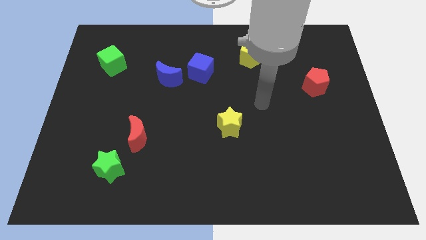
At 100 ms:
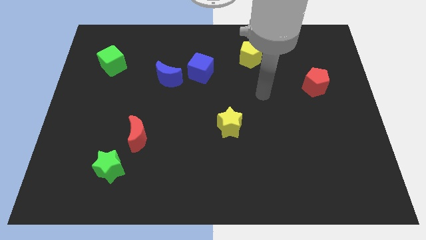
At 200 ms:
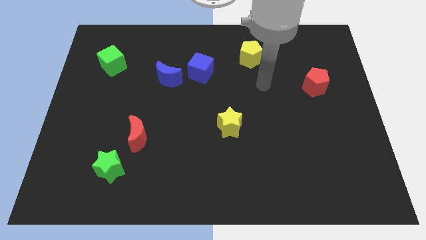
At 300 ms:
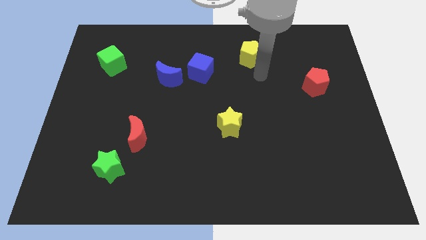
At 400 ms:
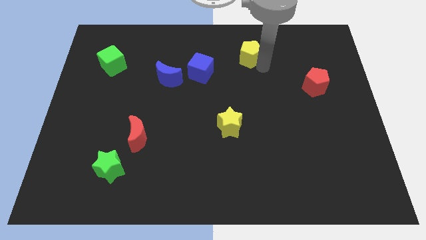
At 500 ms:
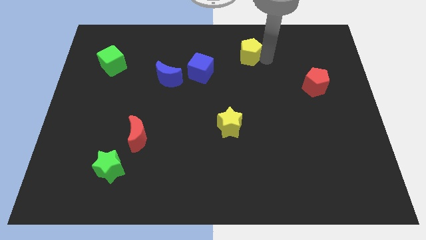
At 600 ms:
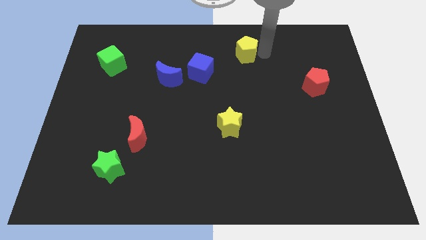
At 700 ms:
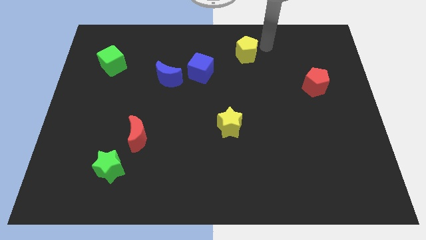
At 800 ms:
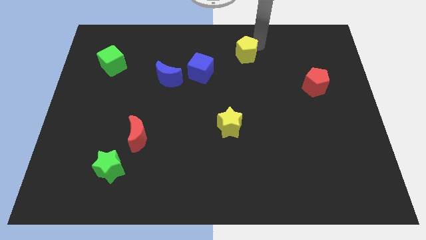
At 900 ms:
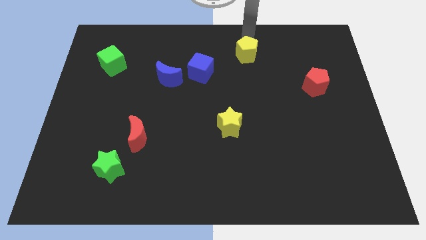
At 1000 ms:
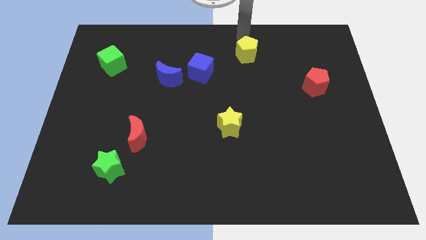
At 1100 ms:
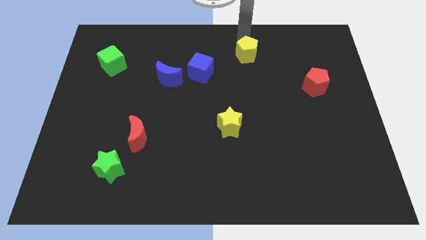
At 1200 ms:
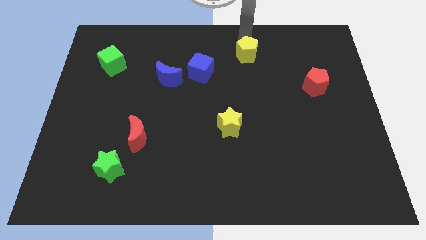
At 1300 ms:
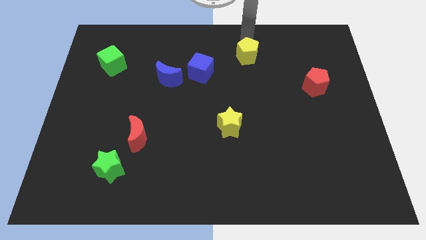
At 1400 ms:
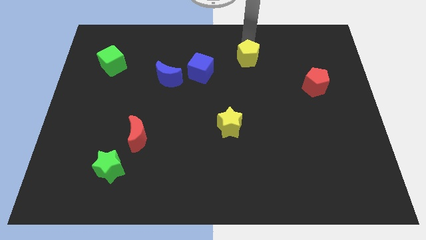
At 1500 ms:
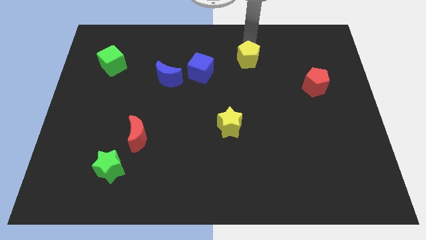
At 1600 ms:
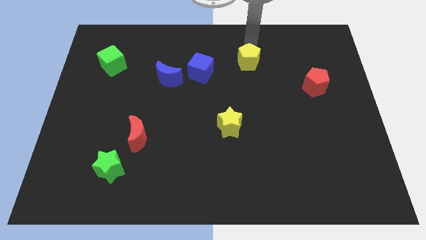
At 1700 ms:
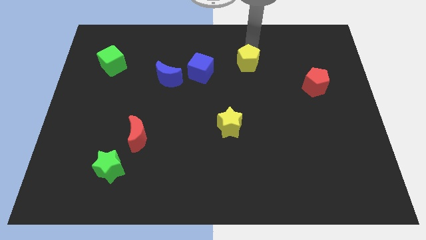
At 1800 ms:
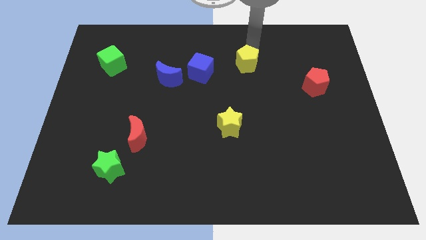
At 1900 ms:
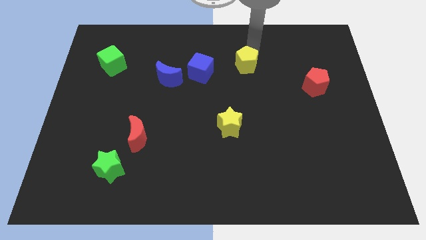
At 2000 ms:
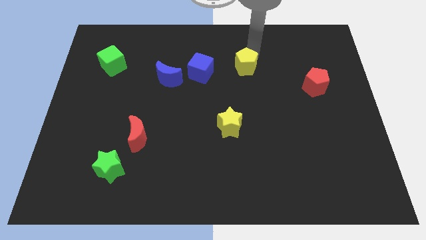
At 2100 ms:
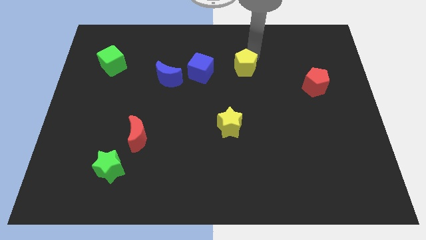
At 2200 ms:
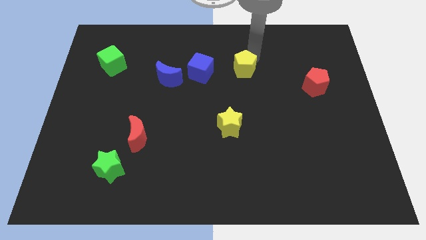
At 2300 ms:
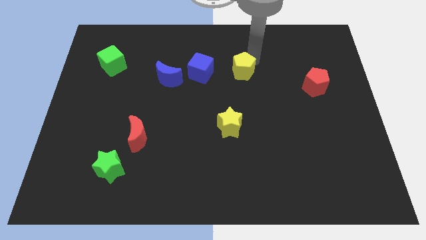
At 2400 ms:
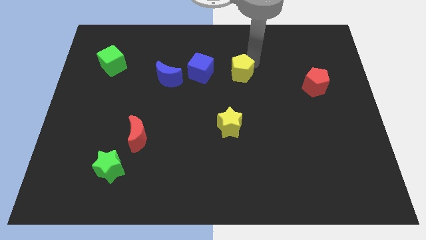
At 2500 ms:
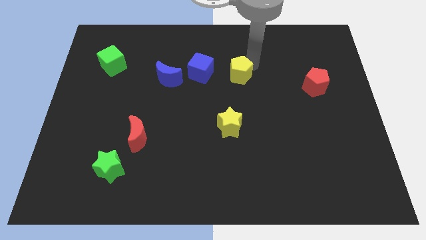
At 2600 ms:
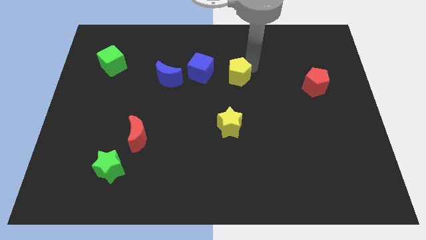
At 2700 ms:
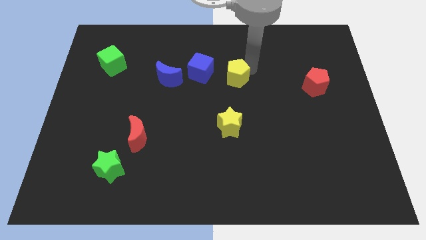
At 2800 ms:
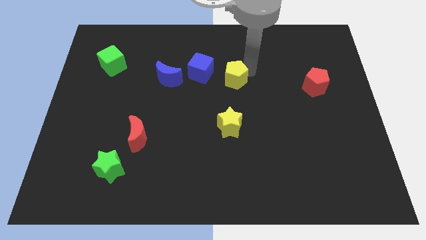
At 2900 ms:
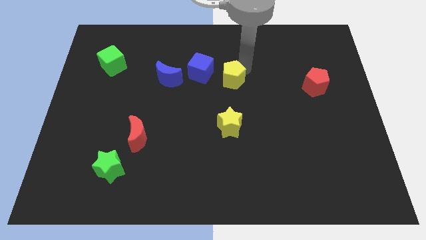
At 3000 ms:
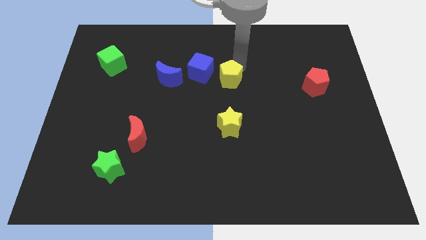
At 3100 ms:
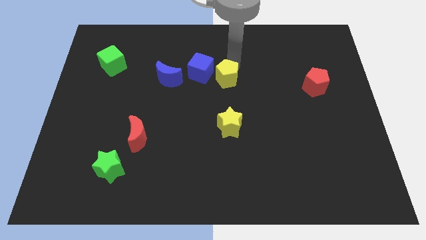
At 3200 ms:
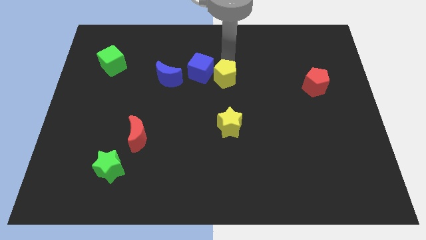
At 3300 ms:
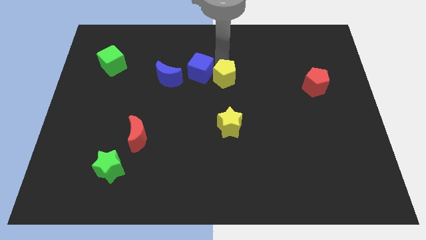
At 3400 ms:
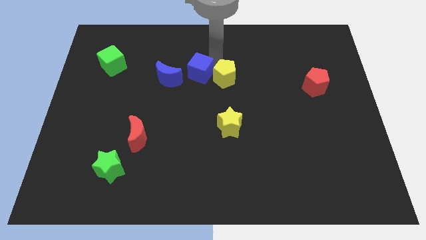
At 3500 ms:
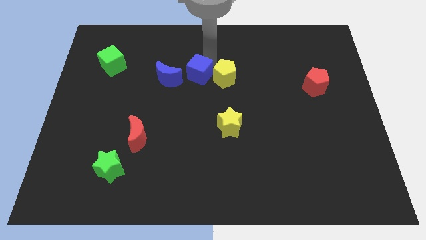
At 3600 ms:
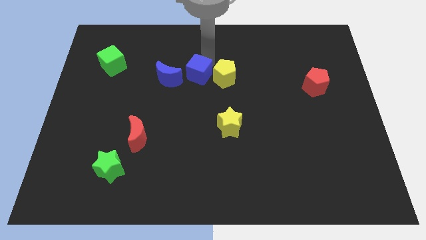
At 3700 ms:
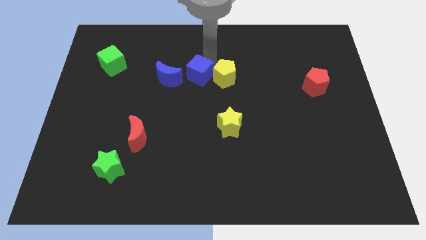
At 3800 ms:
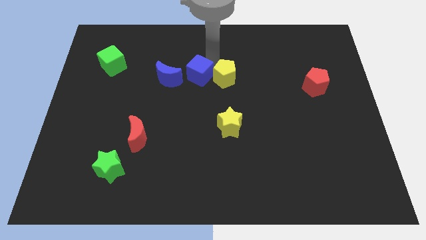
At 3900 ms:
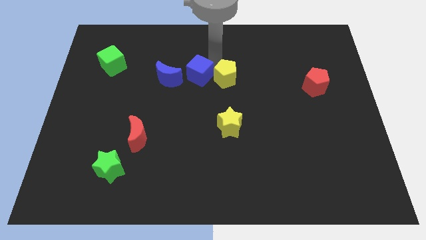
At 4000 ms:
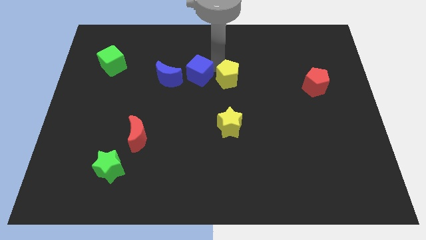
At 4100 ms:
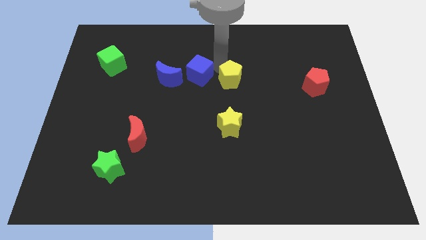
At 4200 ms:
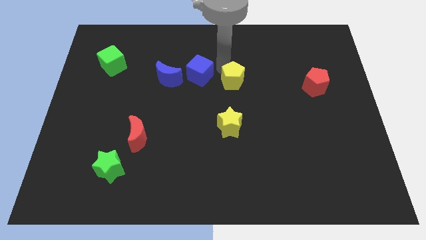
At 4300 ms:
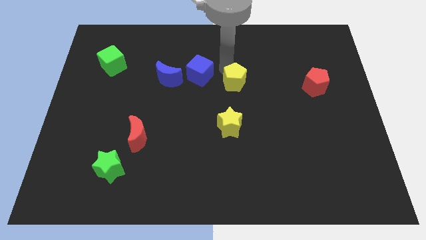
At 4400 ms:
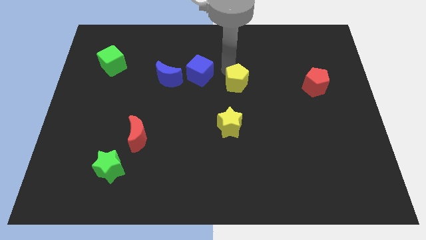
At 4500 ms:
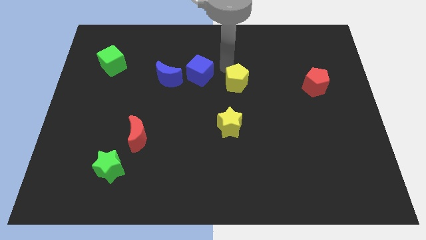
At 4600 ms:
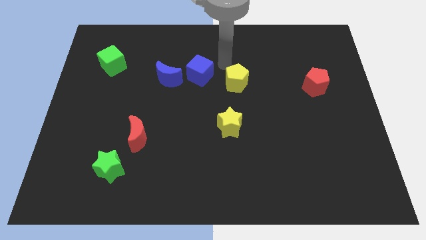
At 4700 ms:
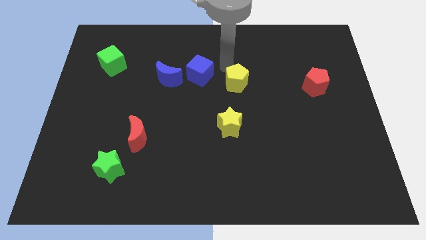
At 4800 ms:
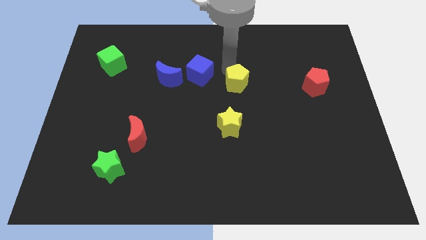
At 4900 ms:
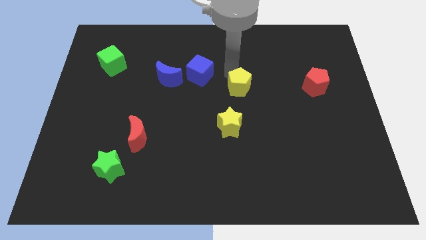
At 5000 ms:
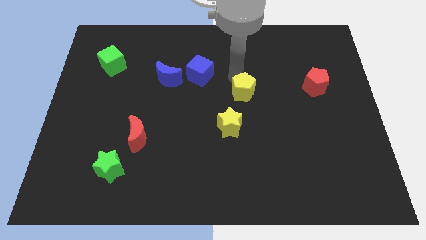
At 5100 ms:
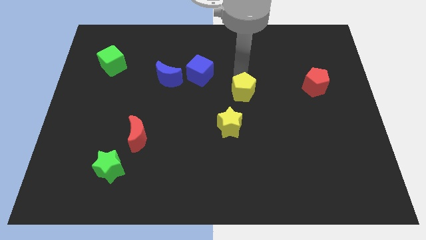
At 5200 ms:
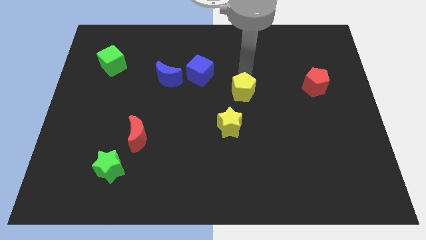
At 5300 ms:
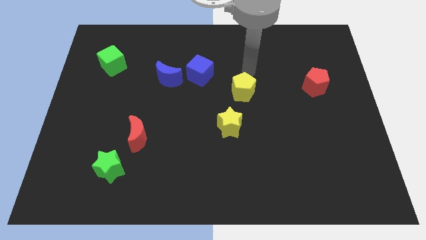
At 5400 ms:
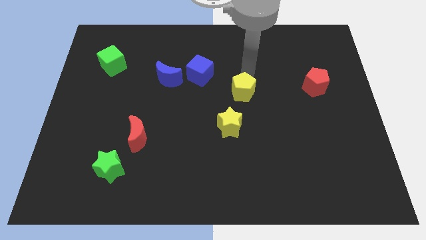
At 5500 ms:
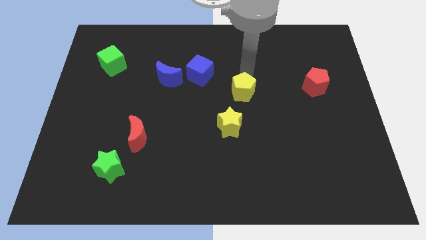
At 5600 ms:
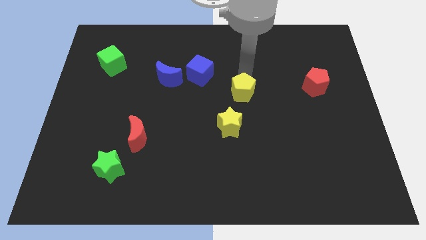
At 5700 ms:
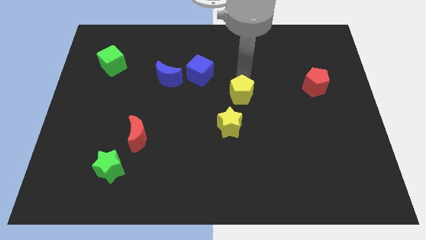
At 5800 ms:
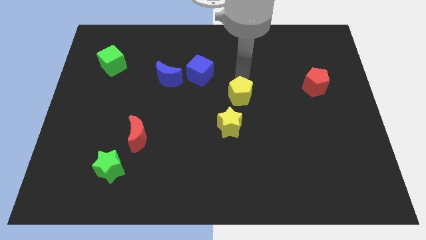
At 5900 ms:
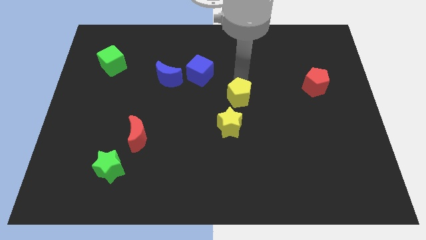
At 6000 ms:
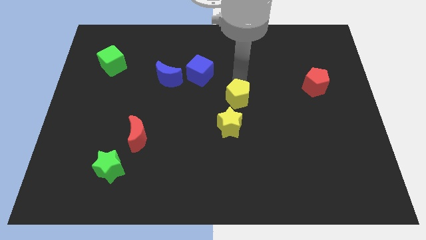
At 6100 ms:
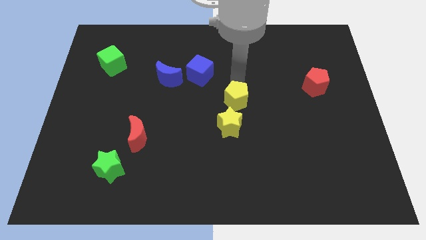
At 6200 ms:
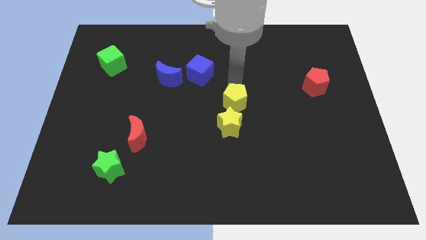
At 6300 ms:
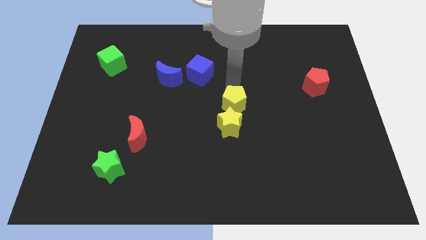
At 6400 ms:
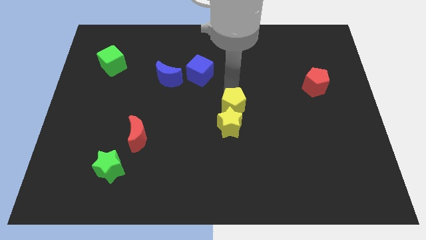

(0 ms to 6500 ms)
move the yellow pentagon next to the yellow star

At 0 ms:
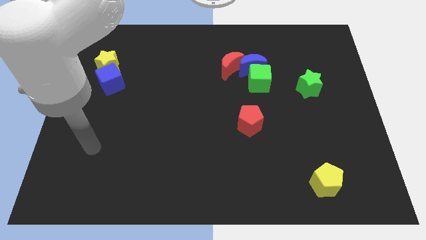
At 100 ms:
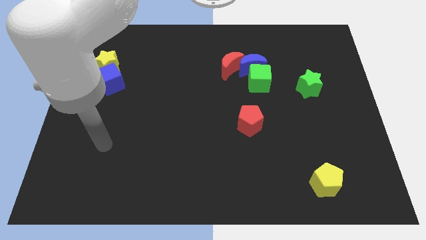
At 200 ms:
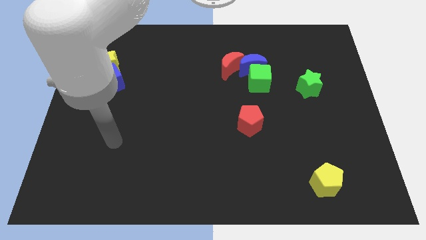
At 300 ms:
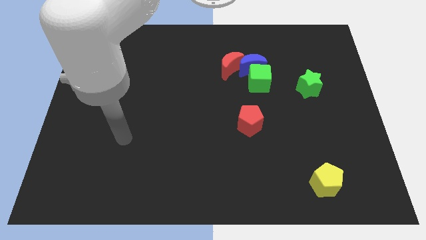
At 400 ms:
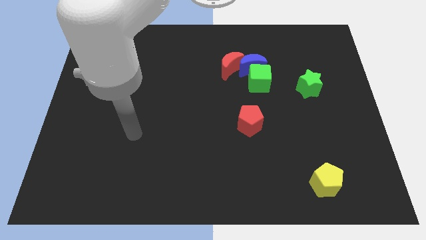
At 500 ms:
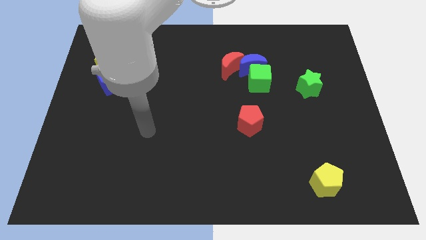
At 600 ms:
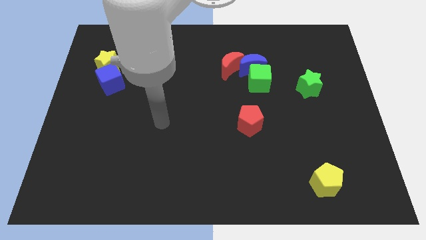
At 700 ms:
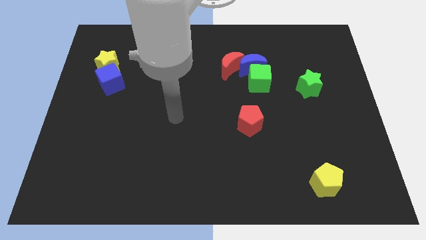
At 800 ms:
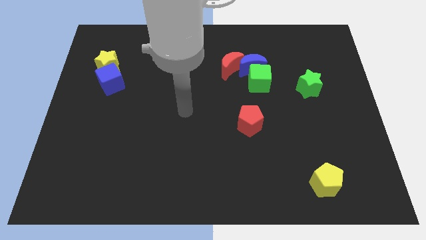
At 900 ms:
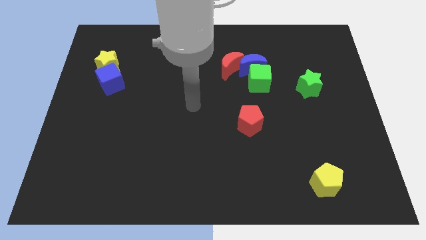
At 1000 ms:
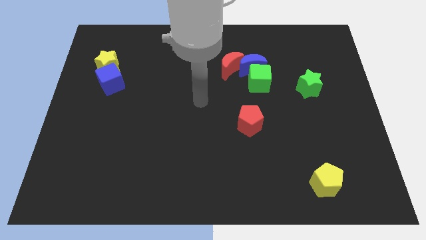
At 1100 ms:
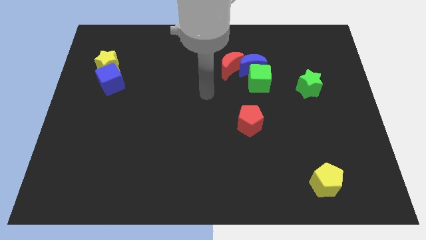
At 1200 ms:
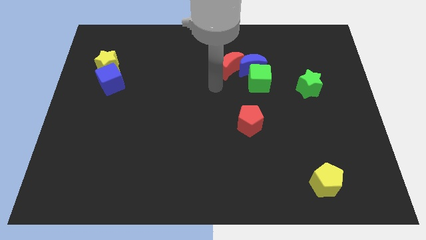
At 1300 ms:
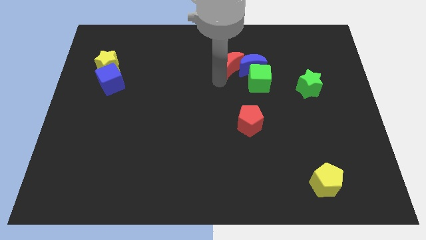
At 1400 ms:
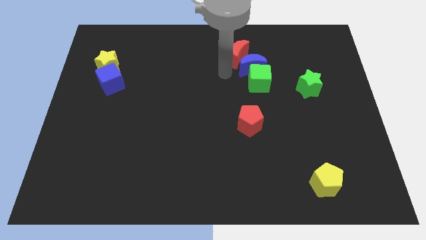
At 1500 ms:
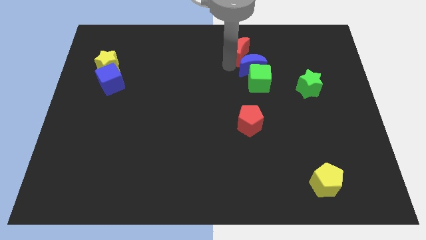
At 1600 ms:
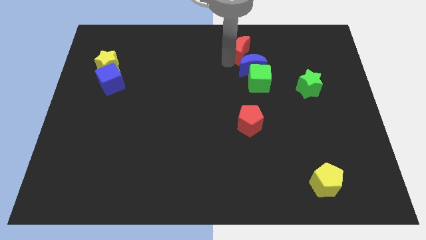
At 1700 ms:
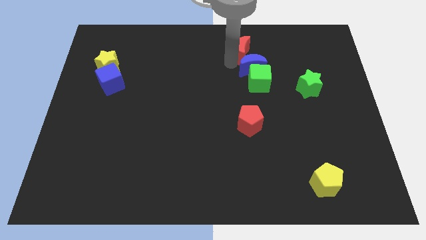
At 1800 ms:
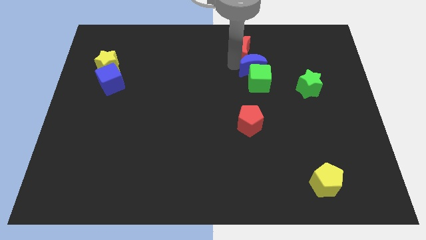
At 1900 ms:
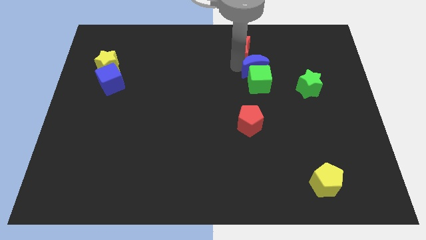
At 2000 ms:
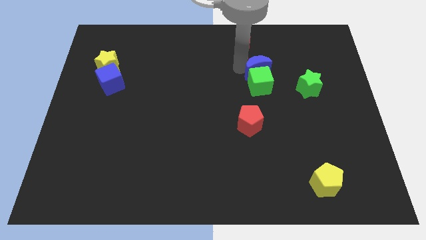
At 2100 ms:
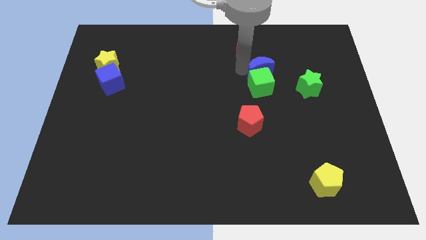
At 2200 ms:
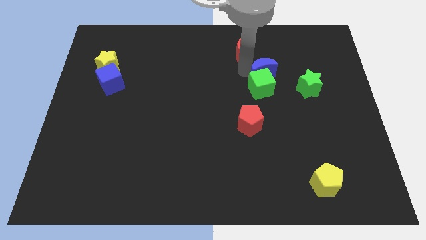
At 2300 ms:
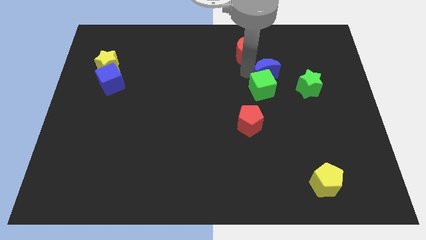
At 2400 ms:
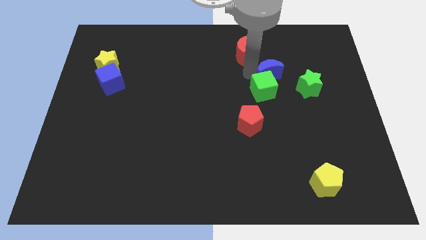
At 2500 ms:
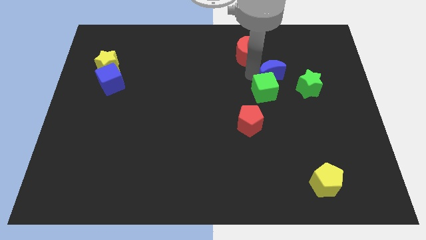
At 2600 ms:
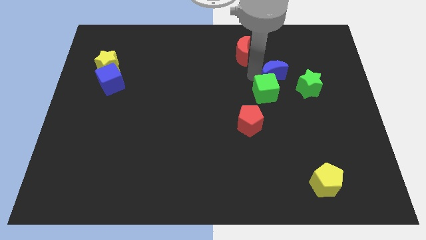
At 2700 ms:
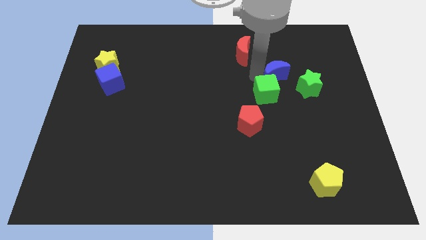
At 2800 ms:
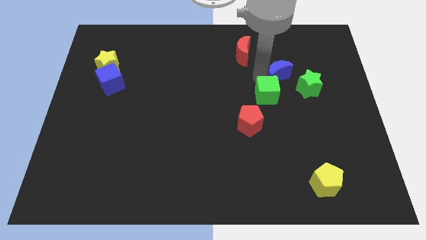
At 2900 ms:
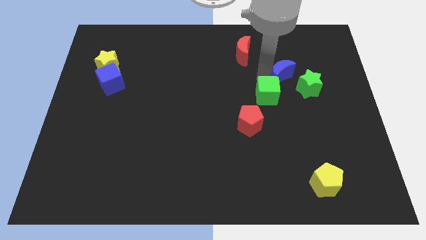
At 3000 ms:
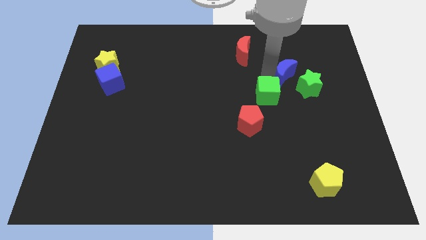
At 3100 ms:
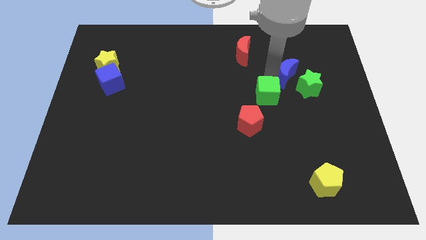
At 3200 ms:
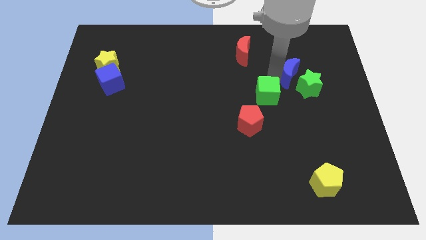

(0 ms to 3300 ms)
move the blue moon to the green star
